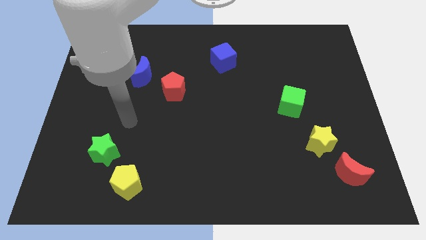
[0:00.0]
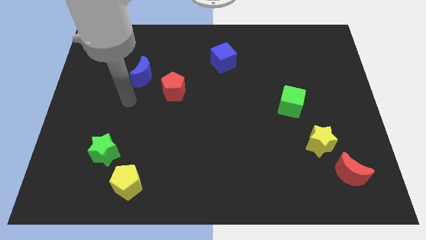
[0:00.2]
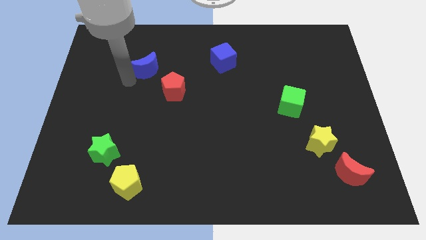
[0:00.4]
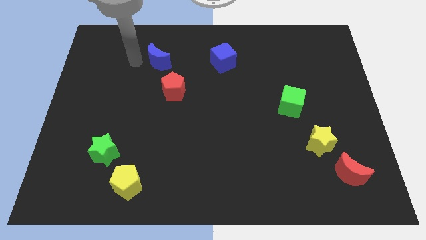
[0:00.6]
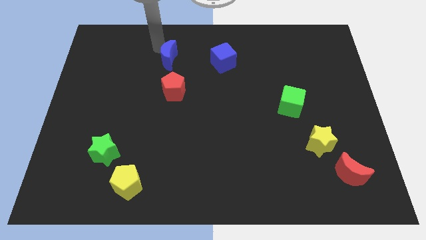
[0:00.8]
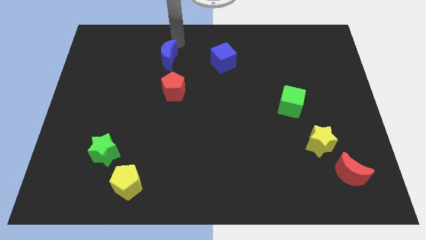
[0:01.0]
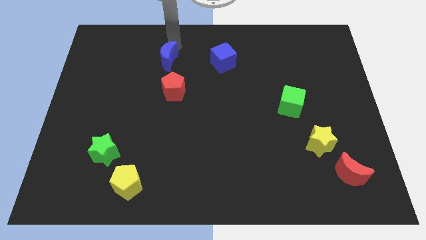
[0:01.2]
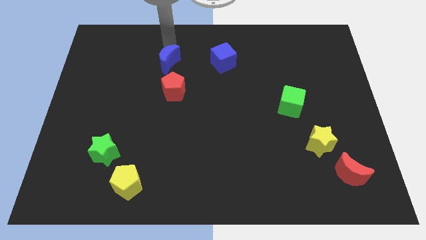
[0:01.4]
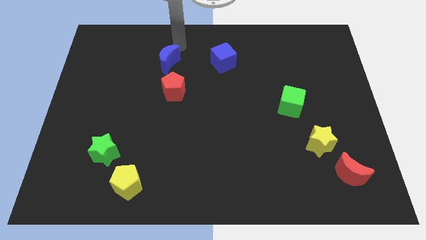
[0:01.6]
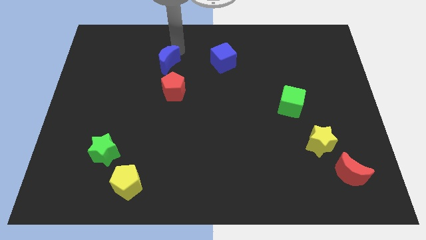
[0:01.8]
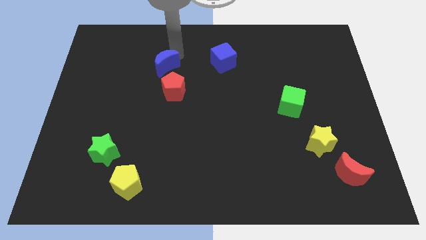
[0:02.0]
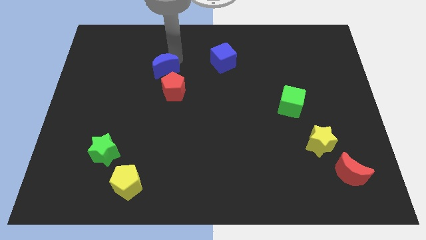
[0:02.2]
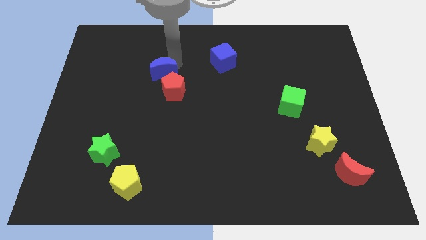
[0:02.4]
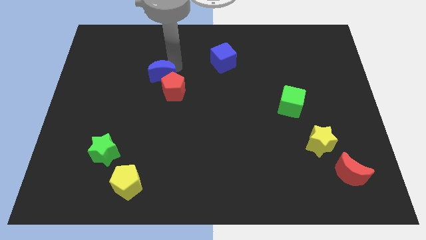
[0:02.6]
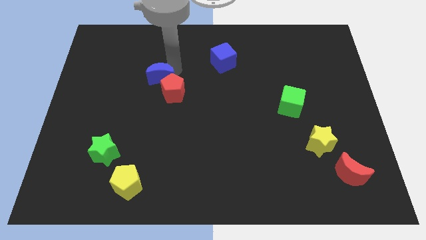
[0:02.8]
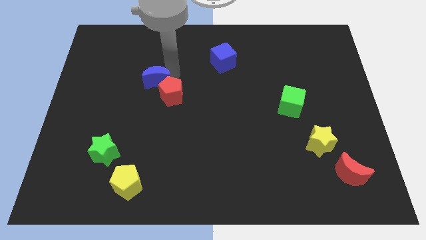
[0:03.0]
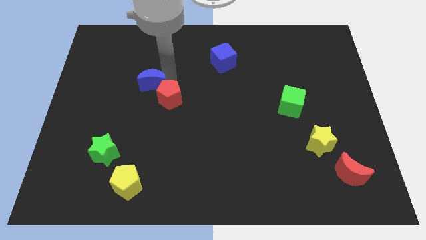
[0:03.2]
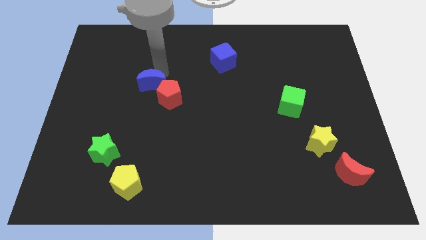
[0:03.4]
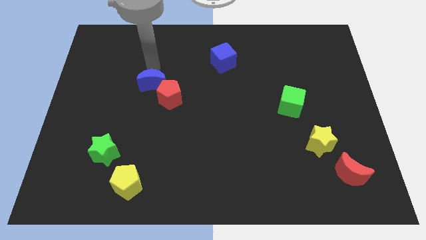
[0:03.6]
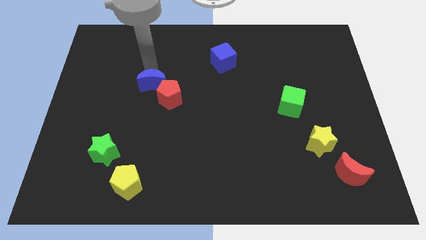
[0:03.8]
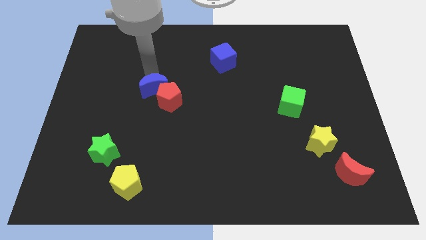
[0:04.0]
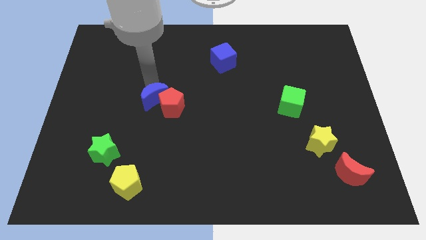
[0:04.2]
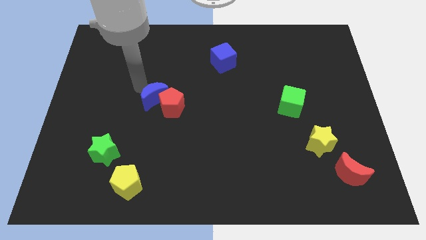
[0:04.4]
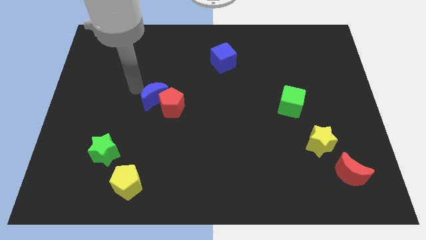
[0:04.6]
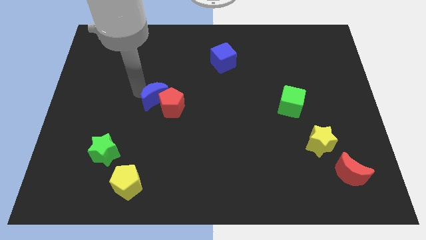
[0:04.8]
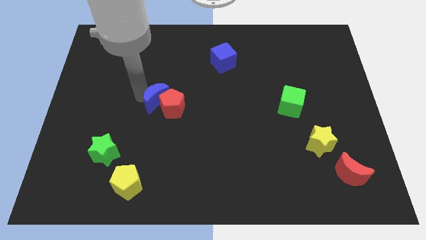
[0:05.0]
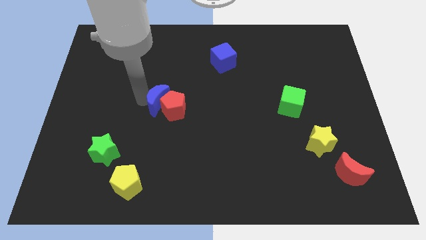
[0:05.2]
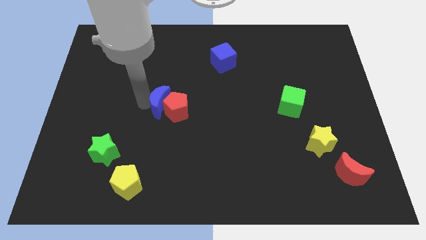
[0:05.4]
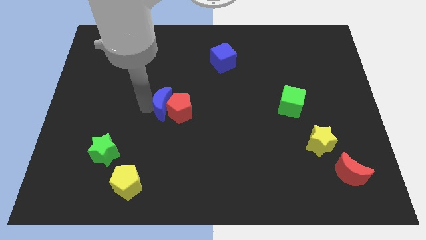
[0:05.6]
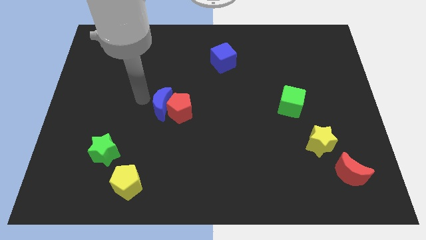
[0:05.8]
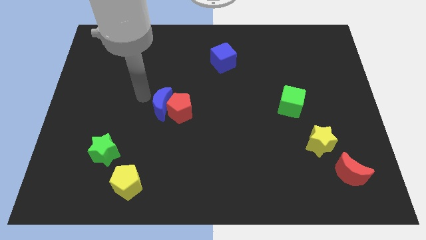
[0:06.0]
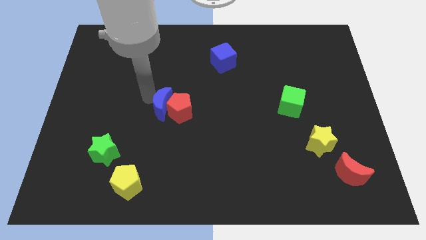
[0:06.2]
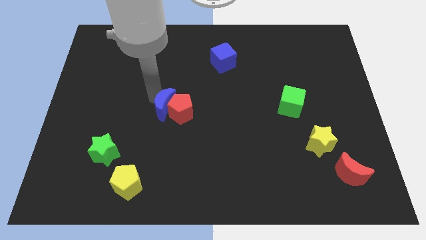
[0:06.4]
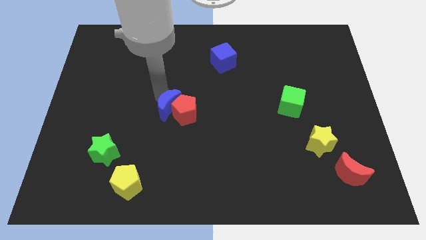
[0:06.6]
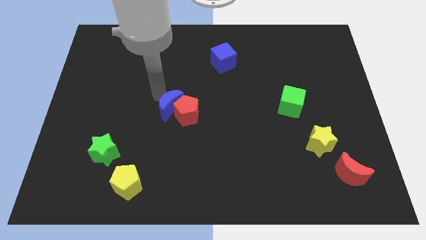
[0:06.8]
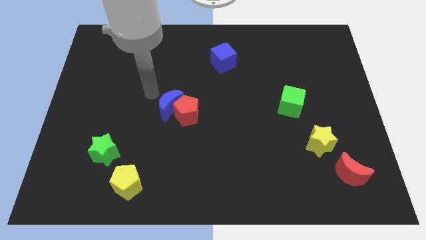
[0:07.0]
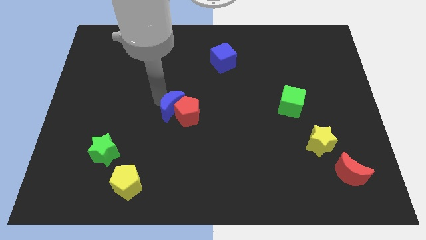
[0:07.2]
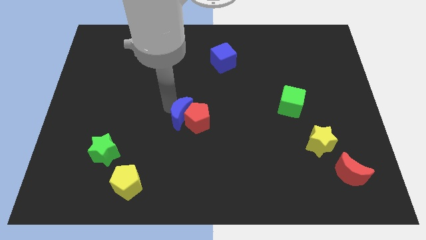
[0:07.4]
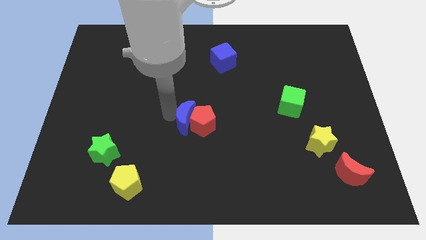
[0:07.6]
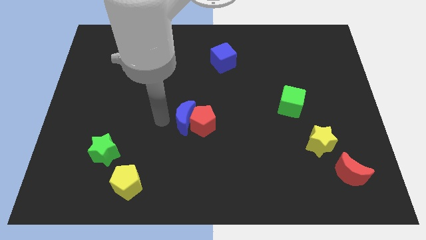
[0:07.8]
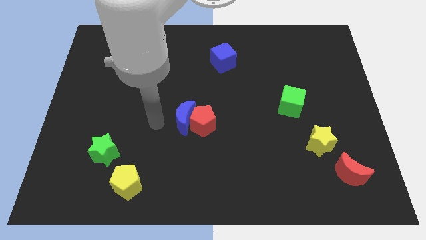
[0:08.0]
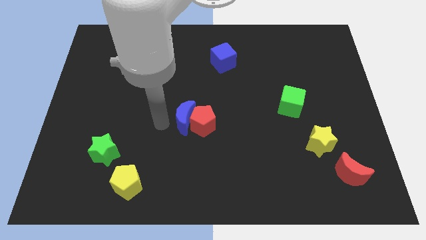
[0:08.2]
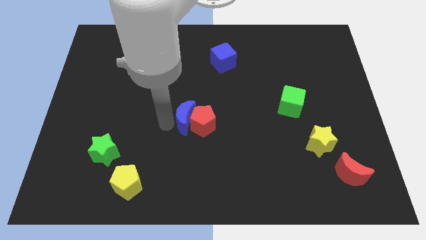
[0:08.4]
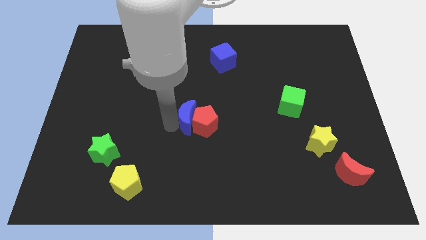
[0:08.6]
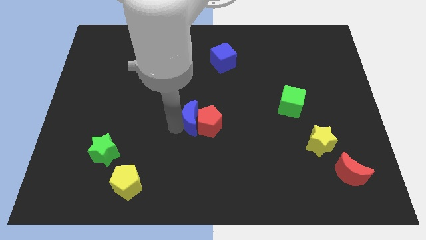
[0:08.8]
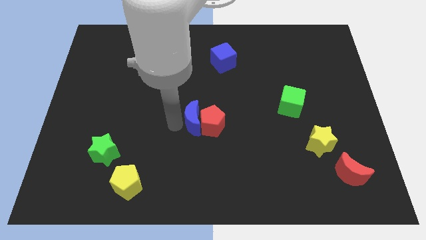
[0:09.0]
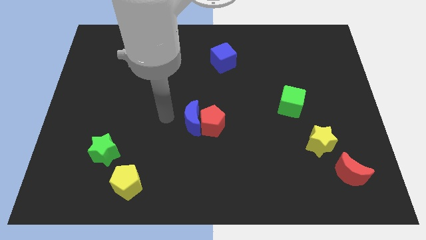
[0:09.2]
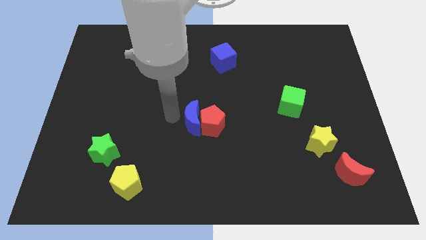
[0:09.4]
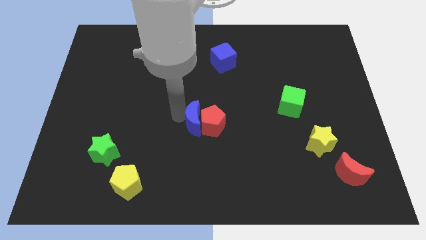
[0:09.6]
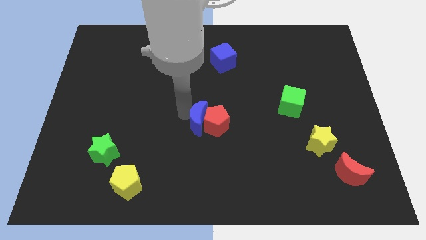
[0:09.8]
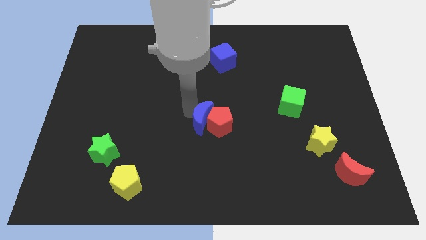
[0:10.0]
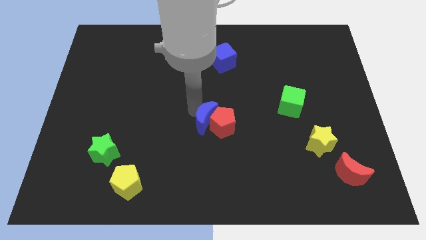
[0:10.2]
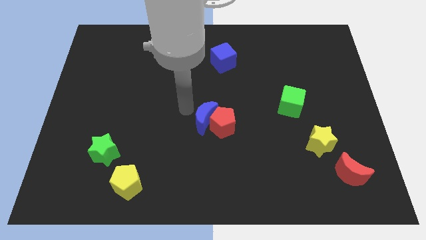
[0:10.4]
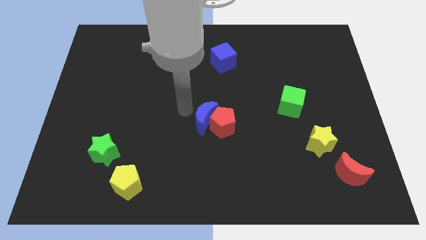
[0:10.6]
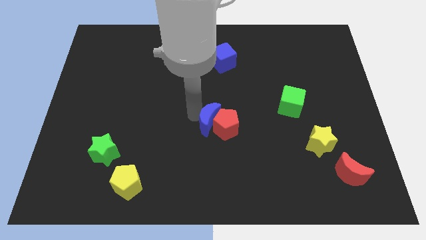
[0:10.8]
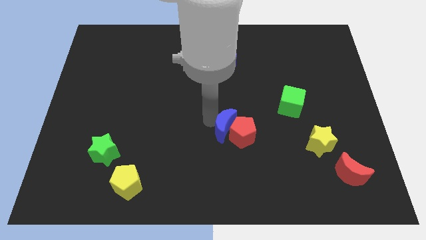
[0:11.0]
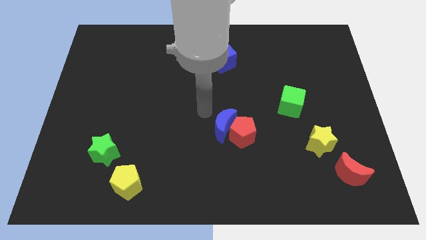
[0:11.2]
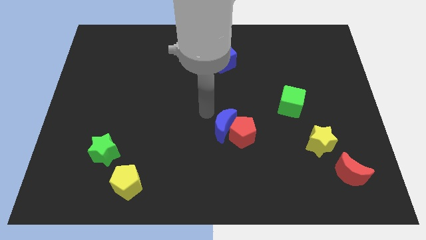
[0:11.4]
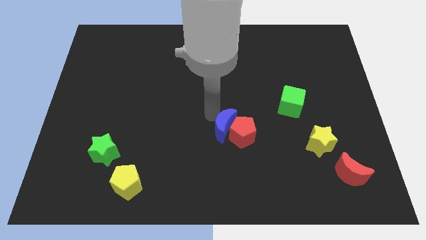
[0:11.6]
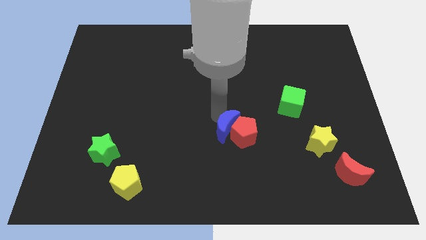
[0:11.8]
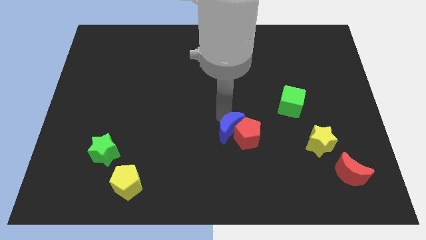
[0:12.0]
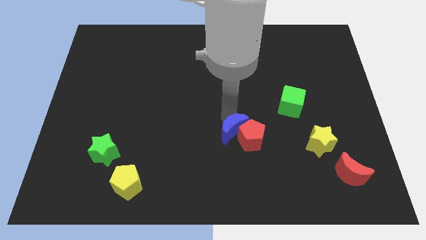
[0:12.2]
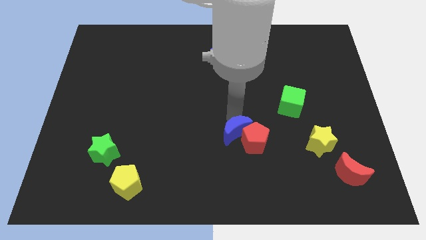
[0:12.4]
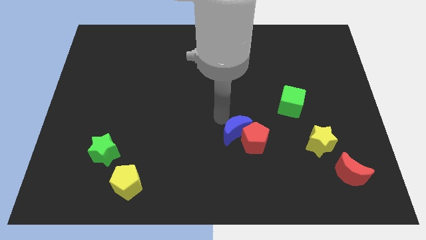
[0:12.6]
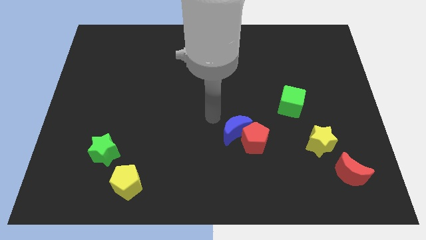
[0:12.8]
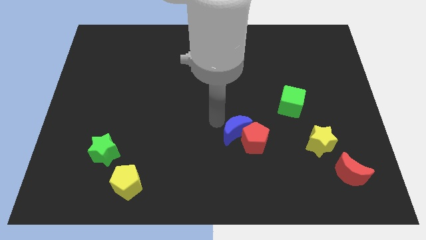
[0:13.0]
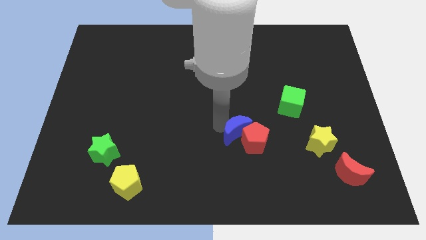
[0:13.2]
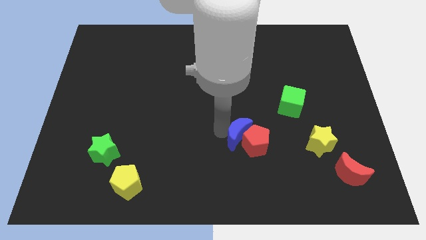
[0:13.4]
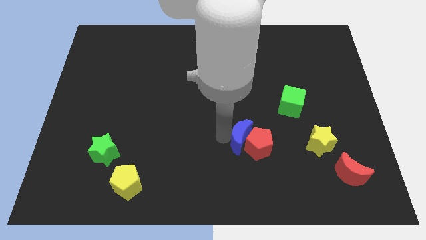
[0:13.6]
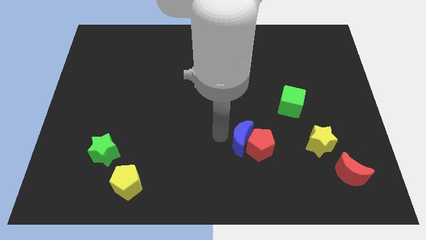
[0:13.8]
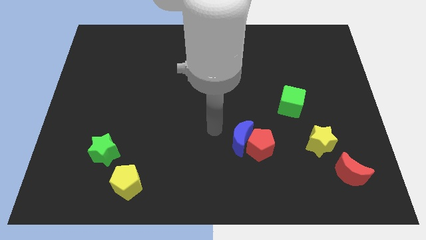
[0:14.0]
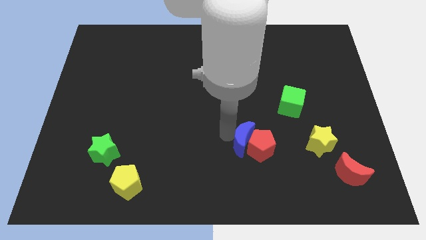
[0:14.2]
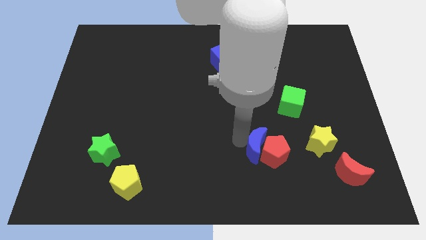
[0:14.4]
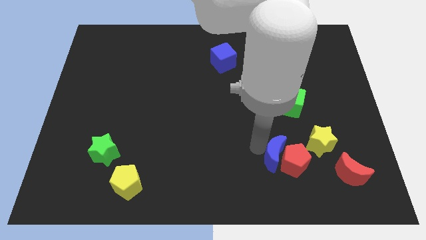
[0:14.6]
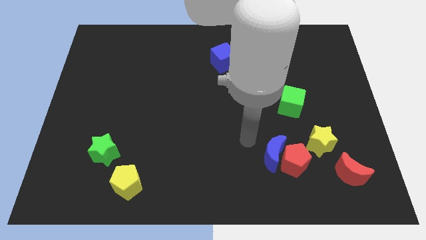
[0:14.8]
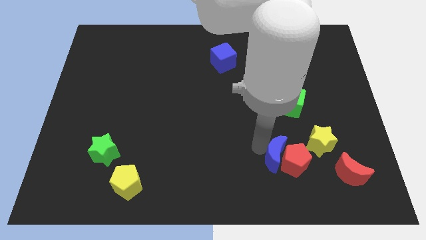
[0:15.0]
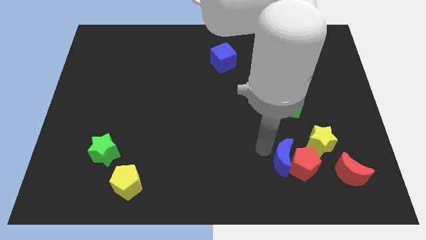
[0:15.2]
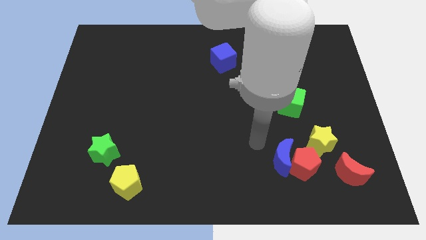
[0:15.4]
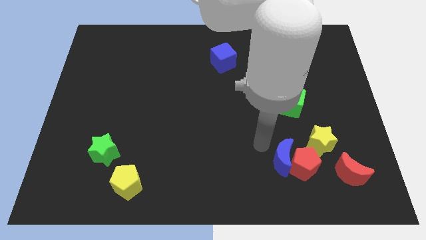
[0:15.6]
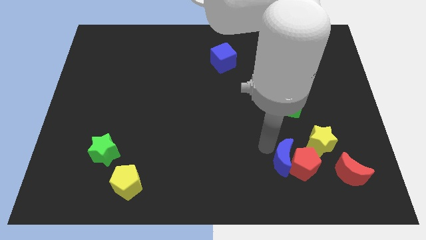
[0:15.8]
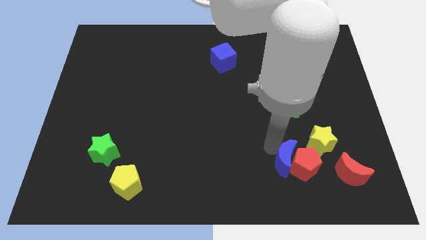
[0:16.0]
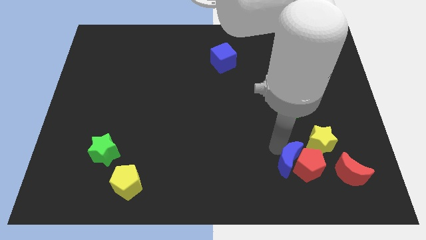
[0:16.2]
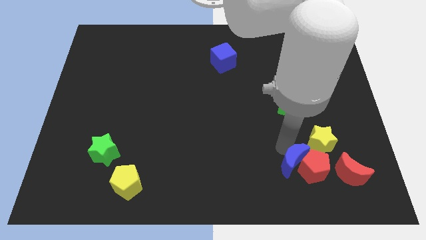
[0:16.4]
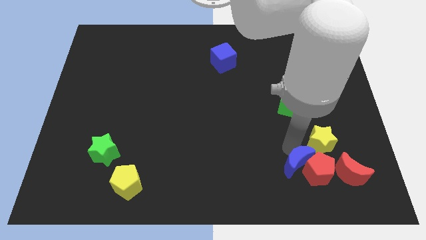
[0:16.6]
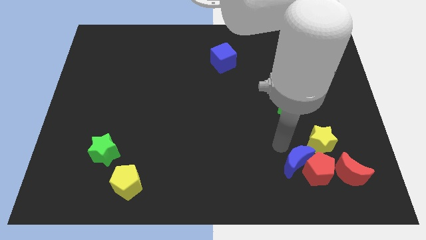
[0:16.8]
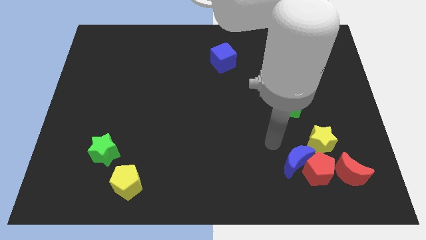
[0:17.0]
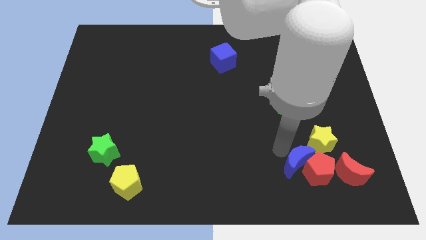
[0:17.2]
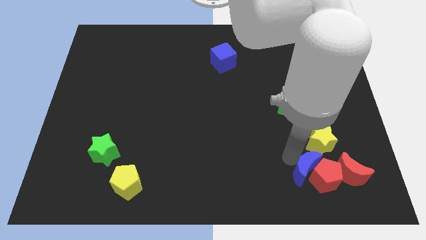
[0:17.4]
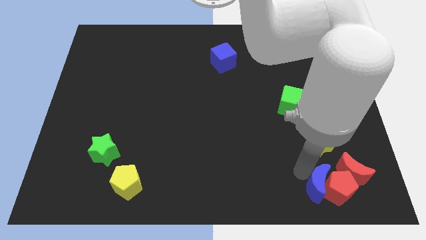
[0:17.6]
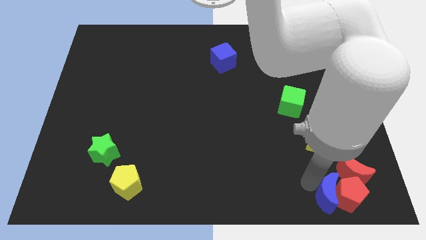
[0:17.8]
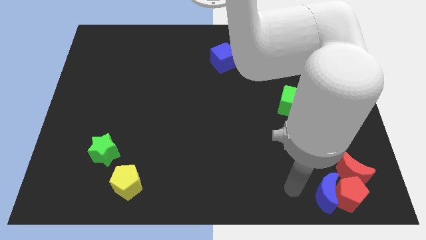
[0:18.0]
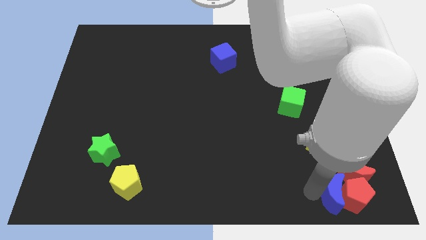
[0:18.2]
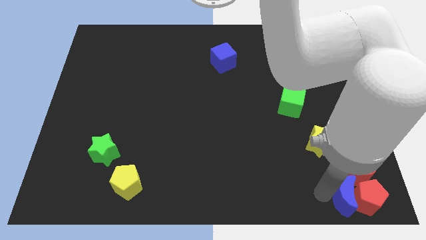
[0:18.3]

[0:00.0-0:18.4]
slide the blue moon to the bottom right of the board
